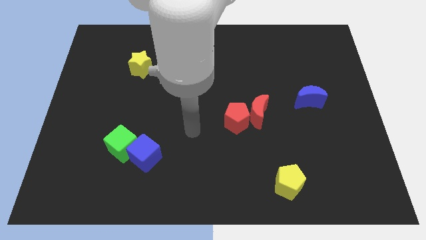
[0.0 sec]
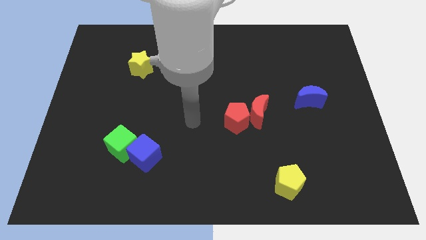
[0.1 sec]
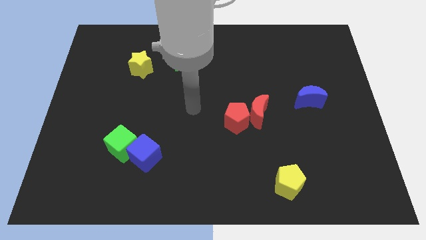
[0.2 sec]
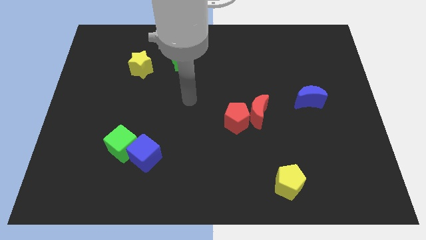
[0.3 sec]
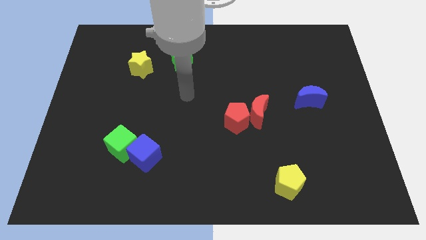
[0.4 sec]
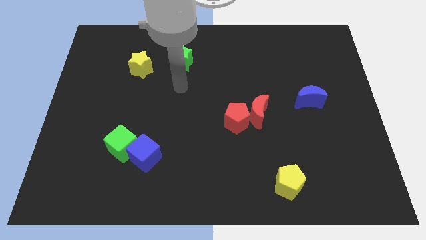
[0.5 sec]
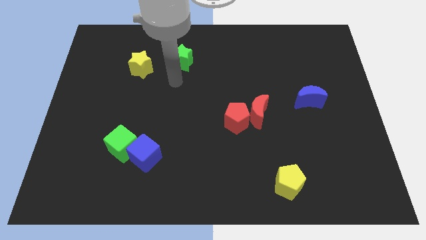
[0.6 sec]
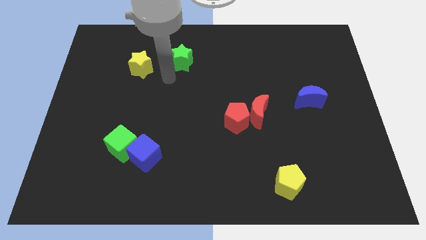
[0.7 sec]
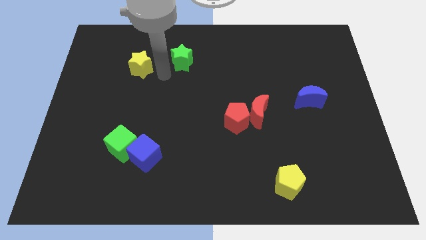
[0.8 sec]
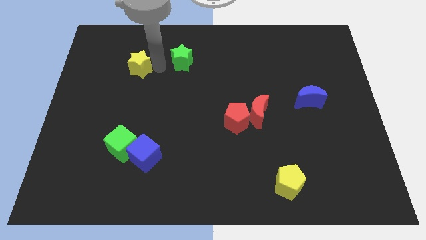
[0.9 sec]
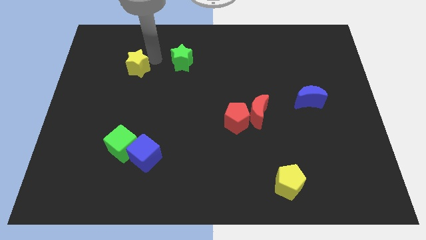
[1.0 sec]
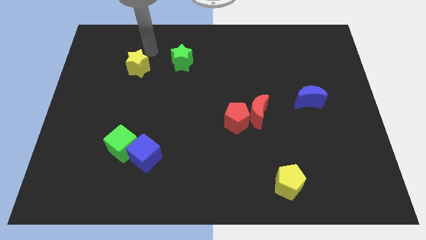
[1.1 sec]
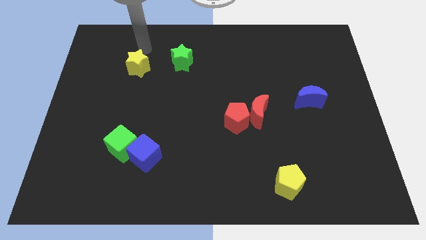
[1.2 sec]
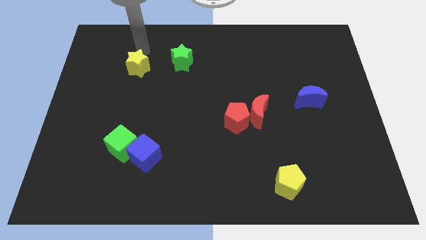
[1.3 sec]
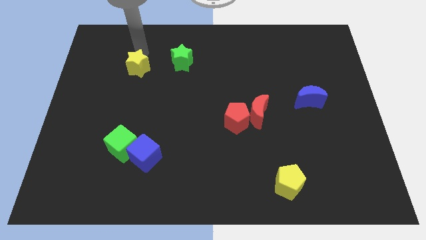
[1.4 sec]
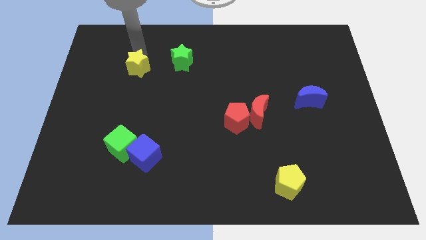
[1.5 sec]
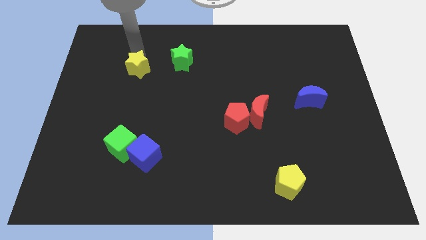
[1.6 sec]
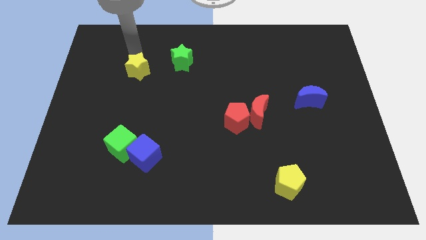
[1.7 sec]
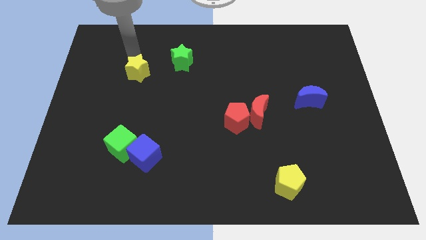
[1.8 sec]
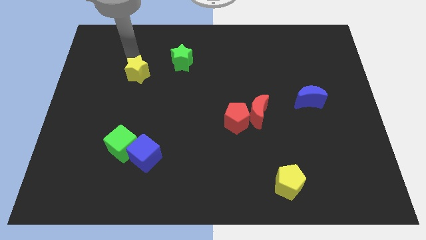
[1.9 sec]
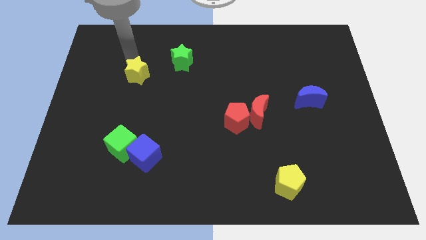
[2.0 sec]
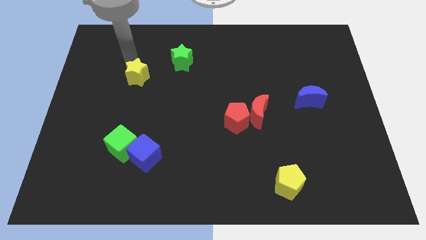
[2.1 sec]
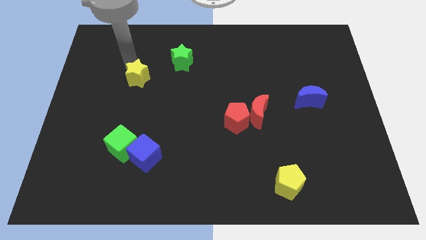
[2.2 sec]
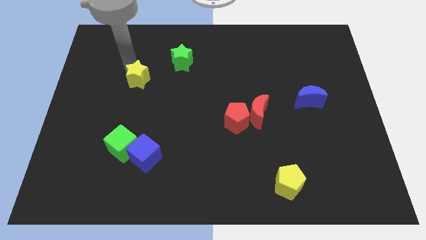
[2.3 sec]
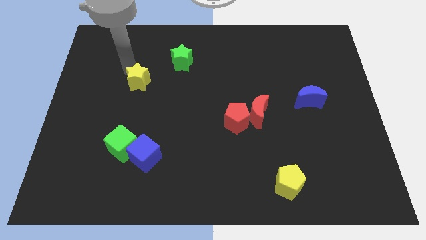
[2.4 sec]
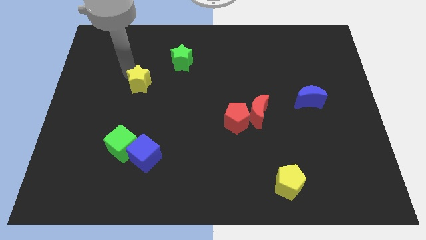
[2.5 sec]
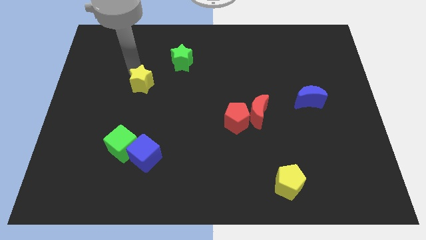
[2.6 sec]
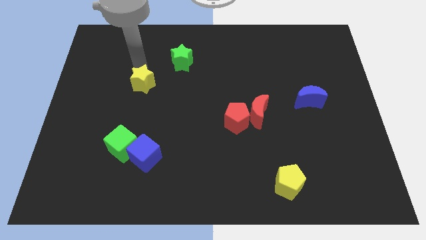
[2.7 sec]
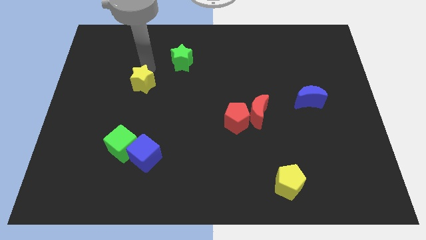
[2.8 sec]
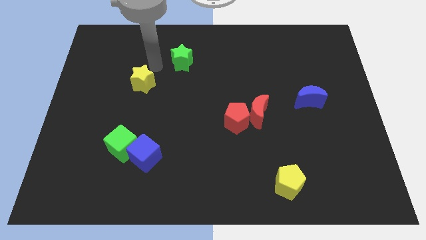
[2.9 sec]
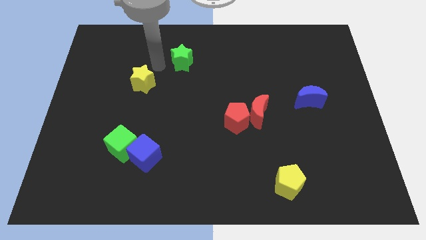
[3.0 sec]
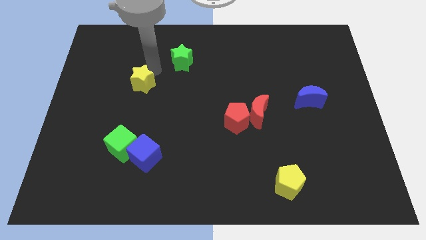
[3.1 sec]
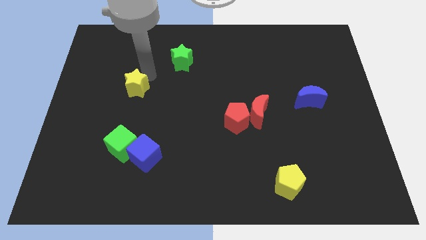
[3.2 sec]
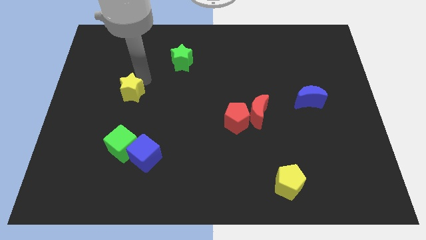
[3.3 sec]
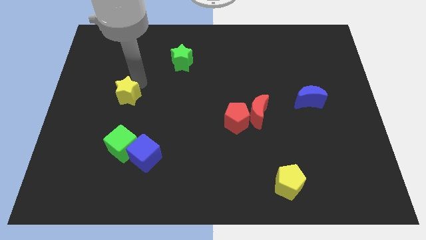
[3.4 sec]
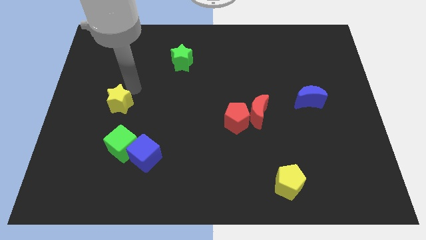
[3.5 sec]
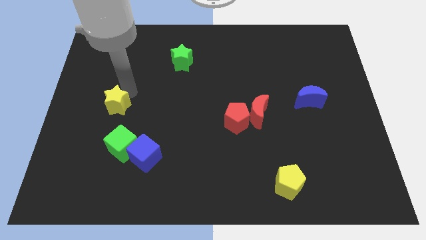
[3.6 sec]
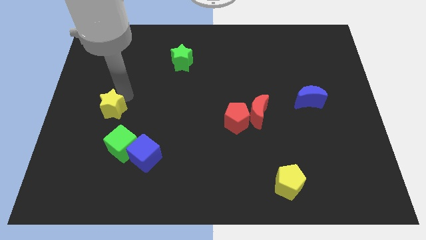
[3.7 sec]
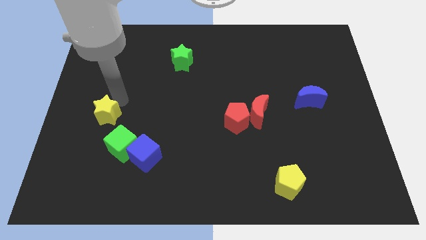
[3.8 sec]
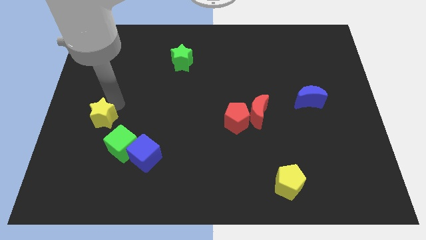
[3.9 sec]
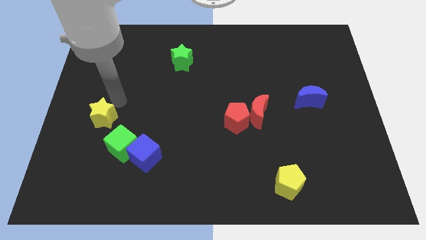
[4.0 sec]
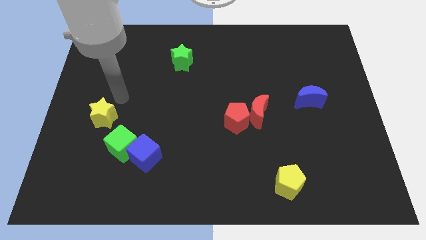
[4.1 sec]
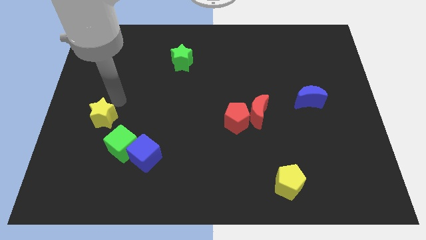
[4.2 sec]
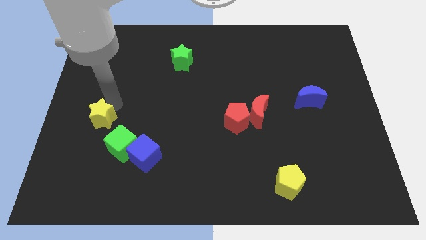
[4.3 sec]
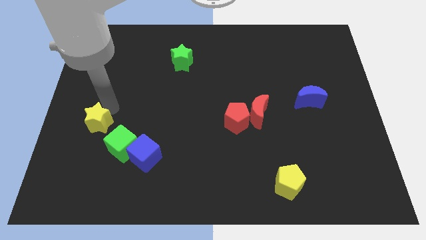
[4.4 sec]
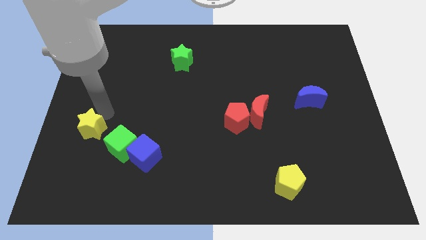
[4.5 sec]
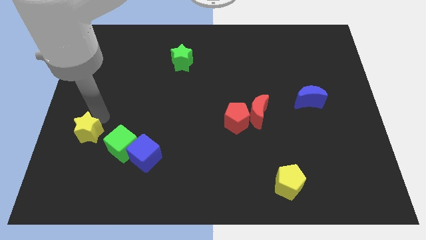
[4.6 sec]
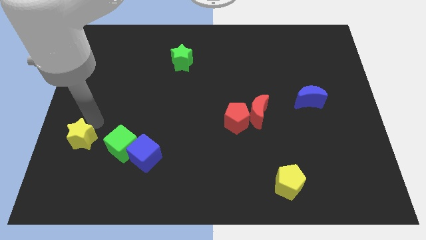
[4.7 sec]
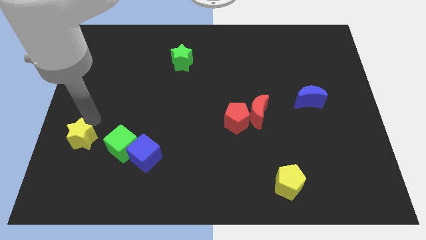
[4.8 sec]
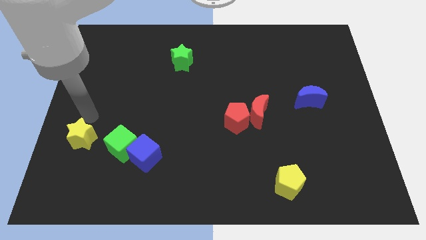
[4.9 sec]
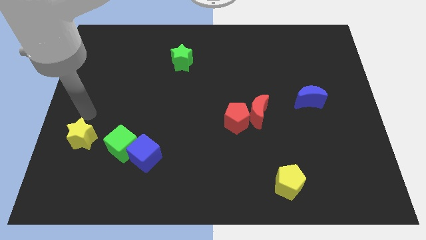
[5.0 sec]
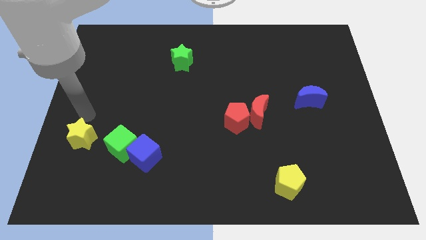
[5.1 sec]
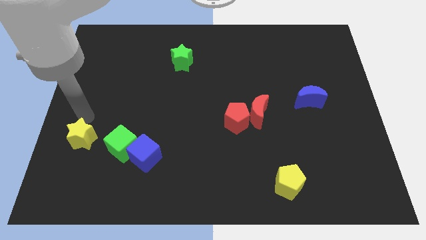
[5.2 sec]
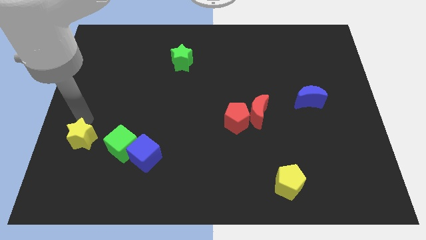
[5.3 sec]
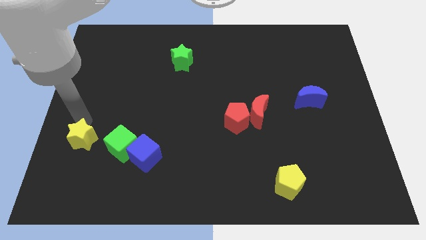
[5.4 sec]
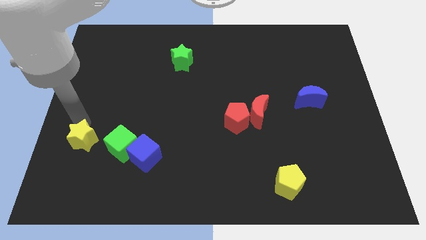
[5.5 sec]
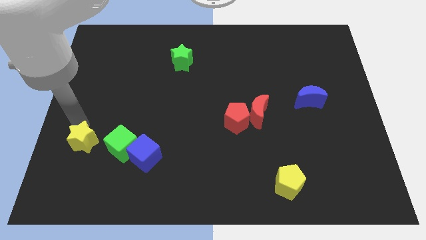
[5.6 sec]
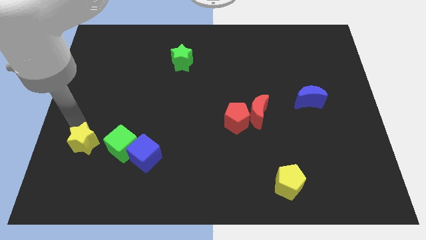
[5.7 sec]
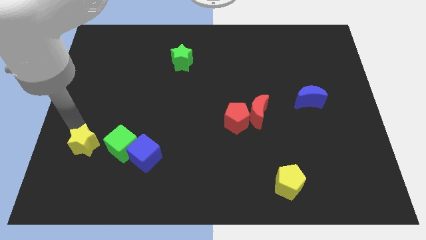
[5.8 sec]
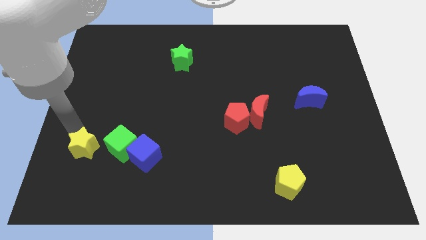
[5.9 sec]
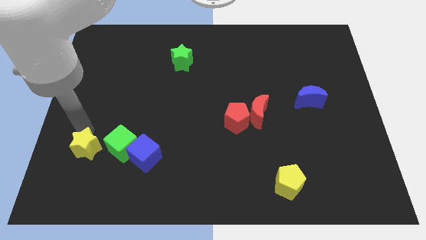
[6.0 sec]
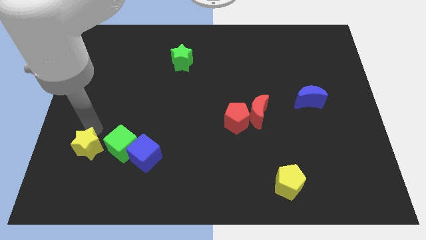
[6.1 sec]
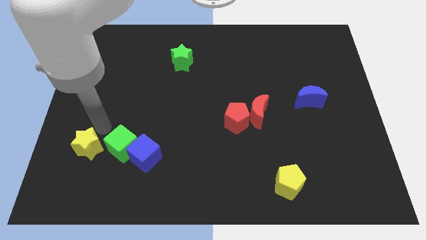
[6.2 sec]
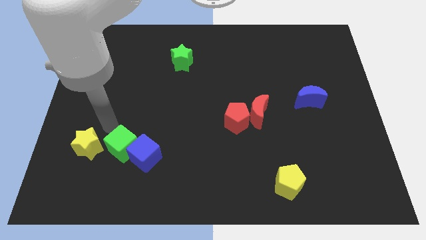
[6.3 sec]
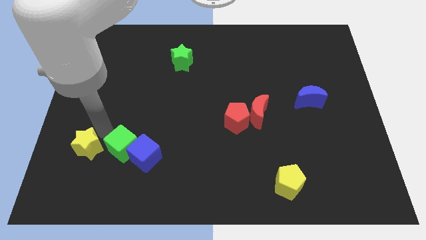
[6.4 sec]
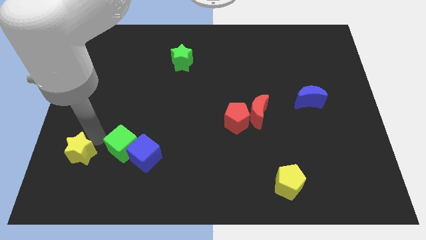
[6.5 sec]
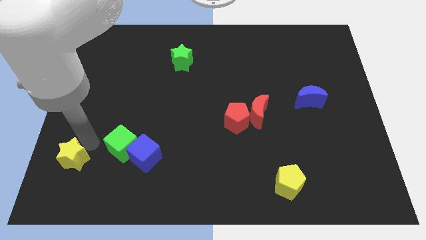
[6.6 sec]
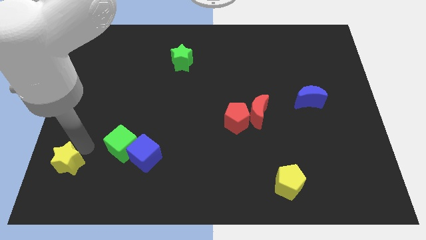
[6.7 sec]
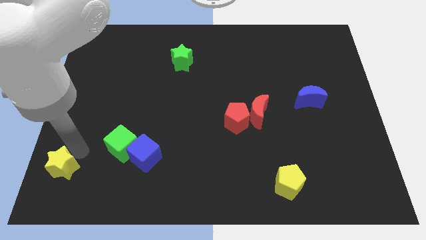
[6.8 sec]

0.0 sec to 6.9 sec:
slide the yellow star to the lower left corner
